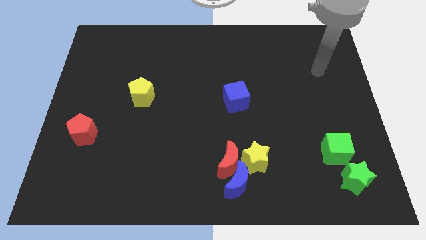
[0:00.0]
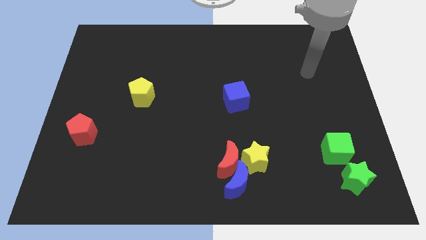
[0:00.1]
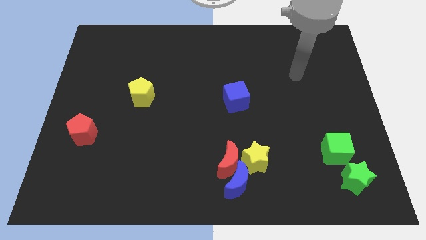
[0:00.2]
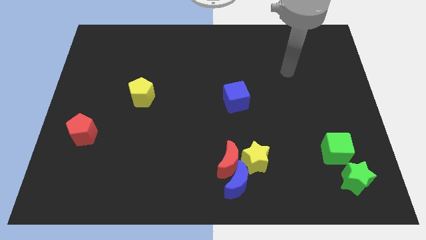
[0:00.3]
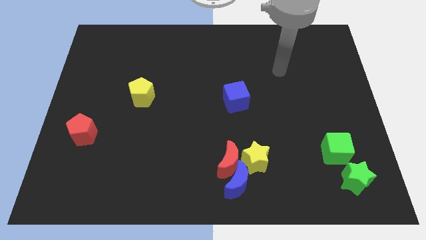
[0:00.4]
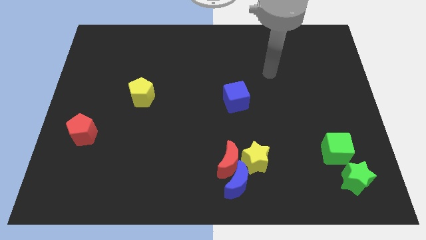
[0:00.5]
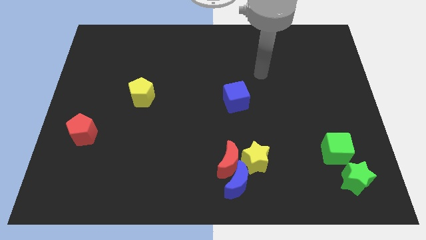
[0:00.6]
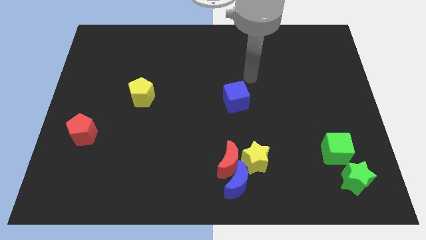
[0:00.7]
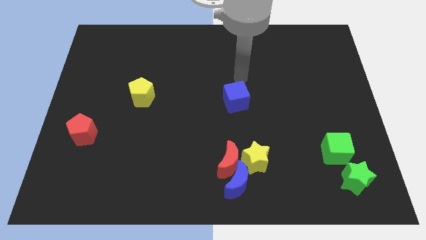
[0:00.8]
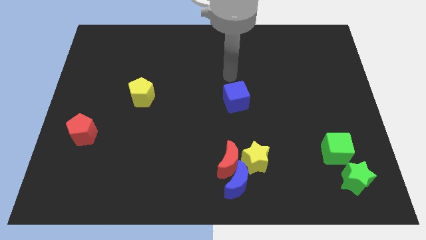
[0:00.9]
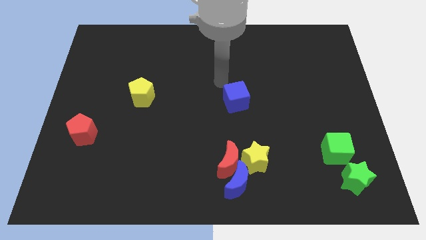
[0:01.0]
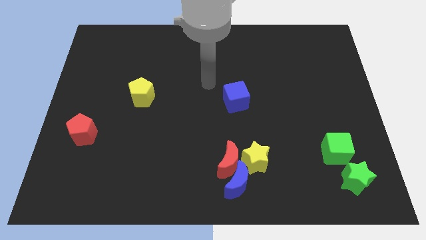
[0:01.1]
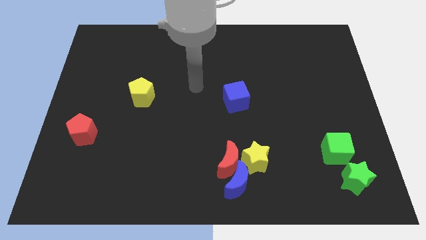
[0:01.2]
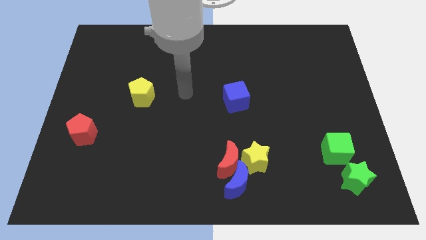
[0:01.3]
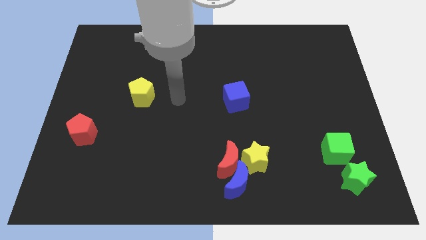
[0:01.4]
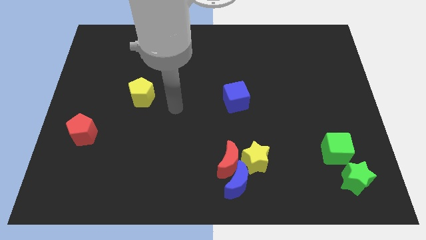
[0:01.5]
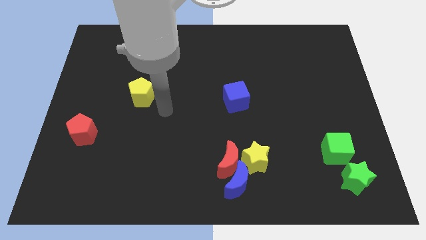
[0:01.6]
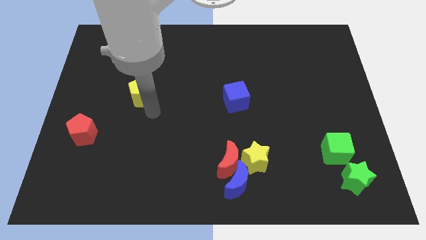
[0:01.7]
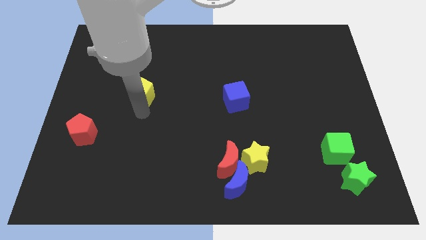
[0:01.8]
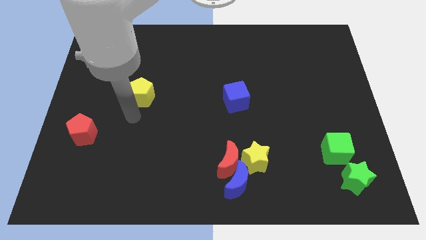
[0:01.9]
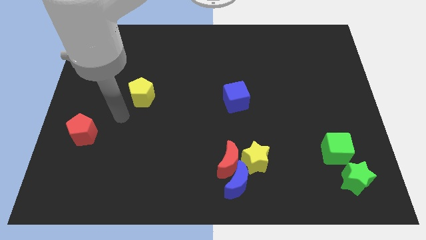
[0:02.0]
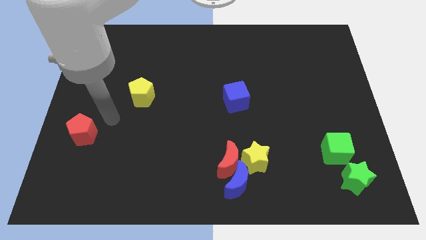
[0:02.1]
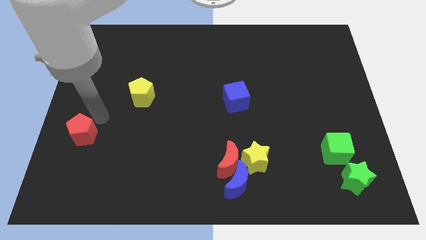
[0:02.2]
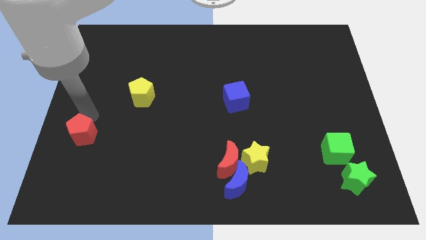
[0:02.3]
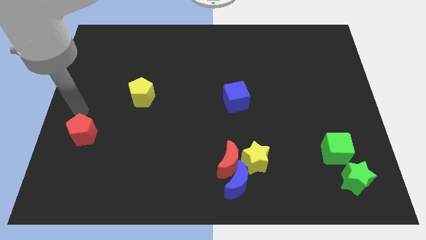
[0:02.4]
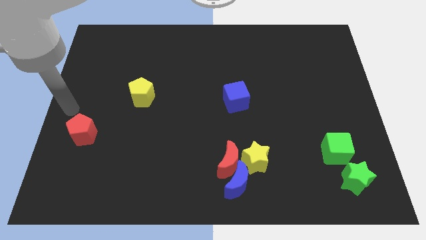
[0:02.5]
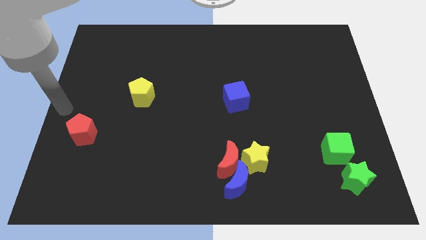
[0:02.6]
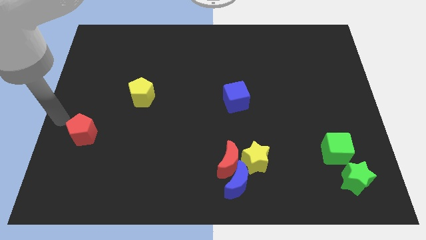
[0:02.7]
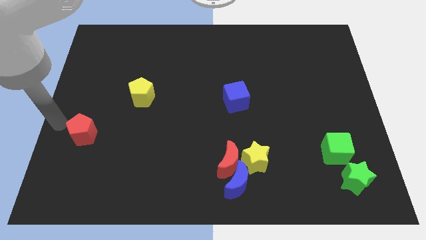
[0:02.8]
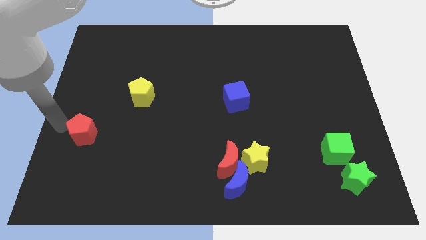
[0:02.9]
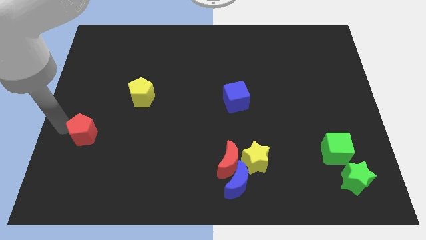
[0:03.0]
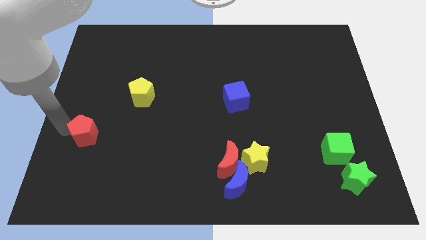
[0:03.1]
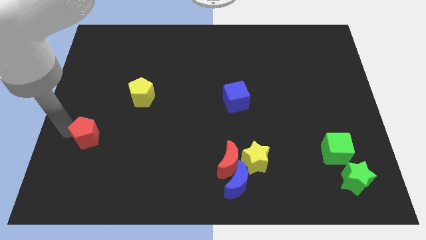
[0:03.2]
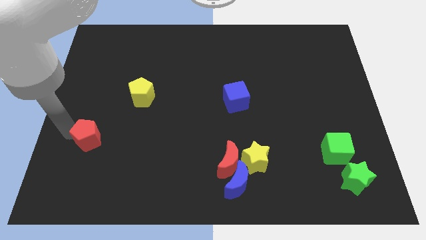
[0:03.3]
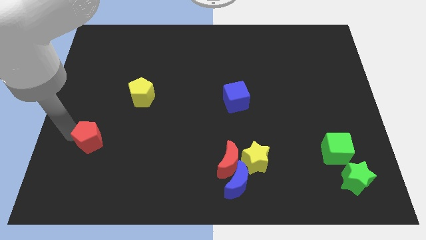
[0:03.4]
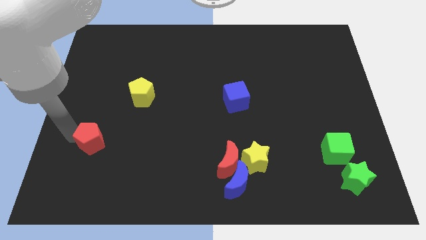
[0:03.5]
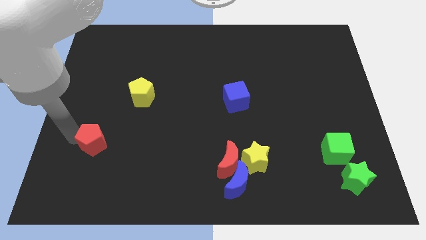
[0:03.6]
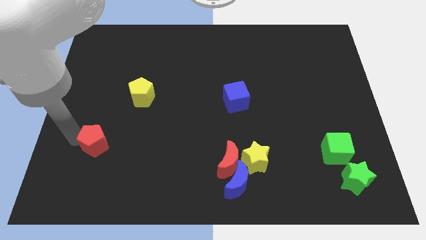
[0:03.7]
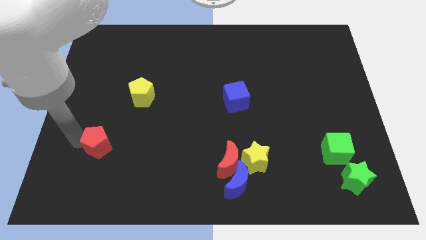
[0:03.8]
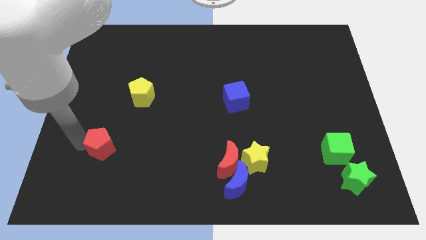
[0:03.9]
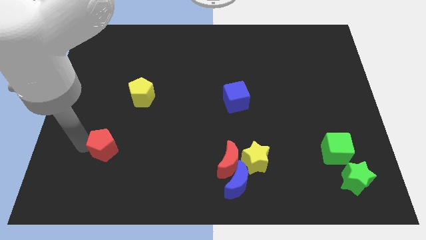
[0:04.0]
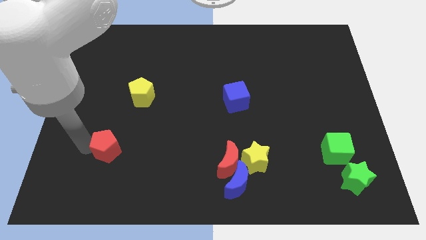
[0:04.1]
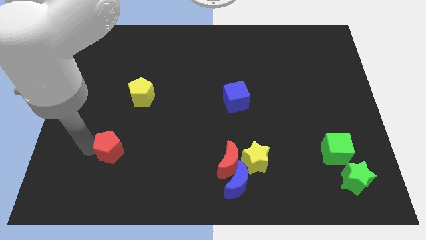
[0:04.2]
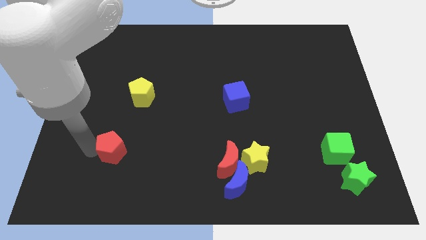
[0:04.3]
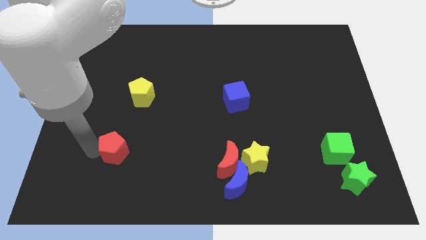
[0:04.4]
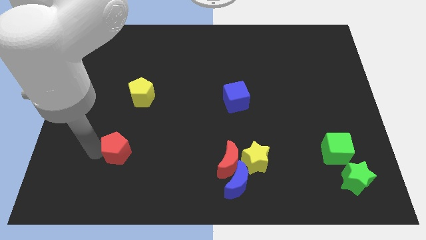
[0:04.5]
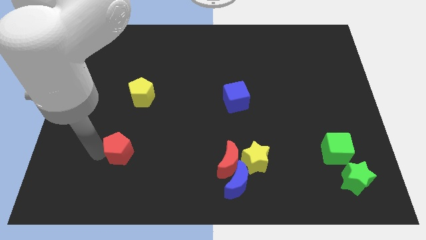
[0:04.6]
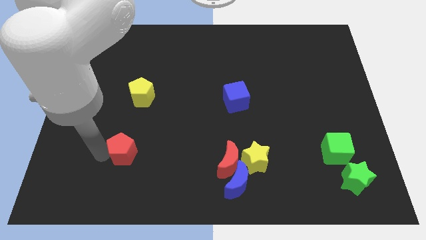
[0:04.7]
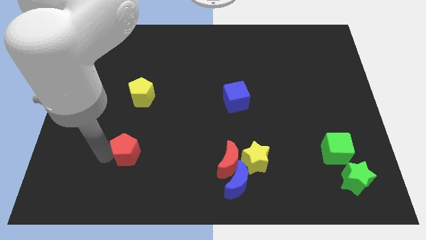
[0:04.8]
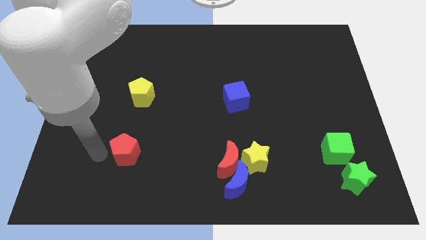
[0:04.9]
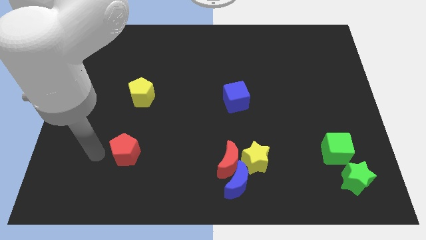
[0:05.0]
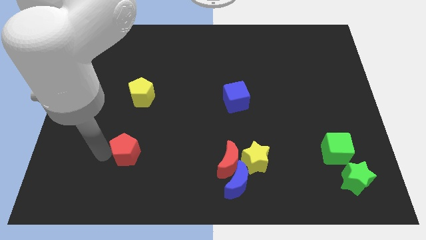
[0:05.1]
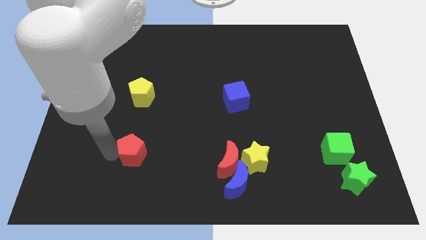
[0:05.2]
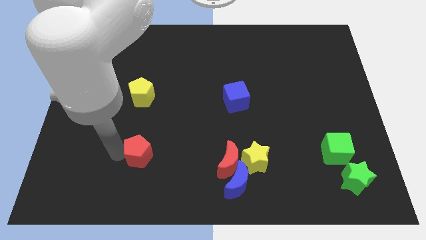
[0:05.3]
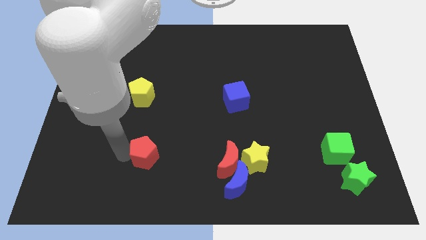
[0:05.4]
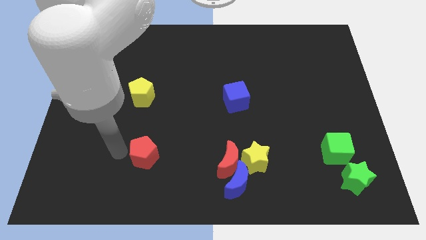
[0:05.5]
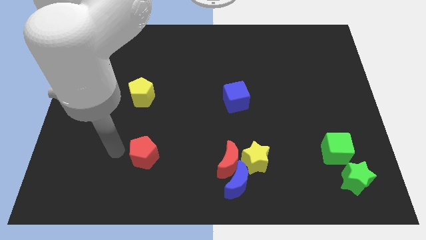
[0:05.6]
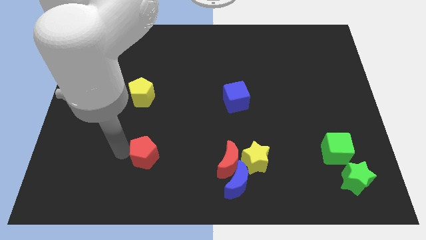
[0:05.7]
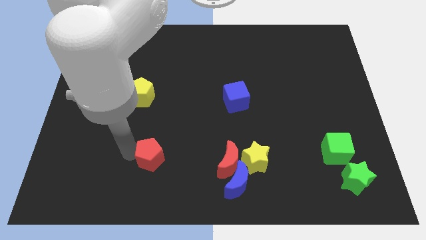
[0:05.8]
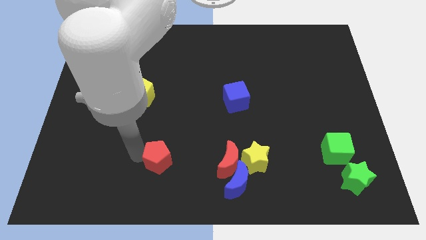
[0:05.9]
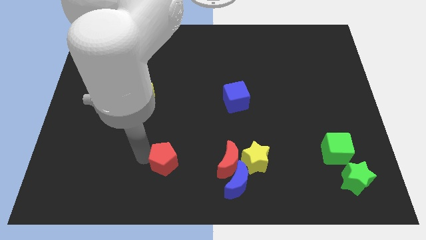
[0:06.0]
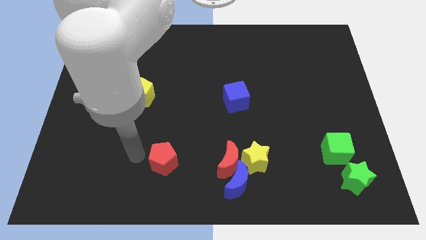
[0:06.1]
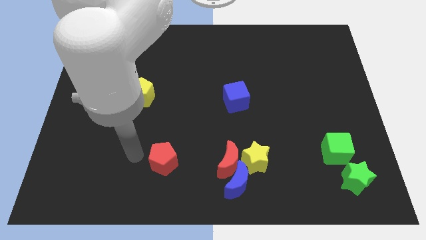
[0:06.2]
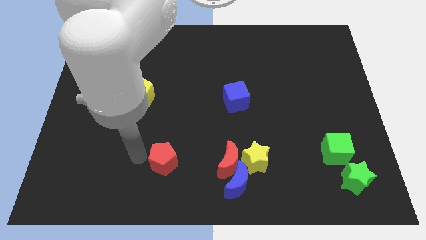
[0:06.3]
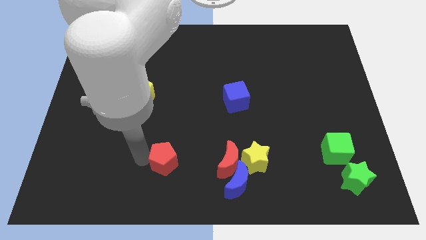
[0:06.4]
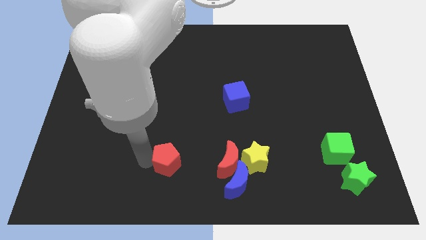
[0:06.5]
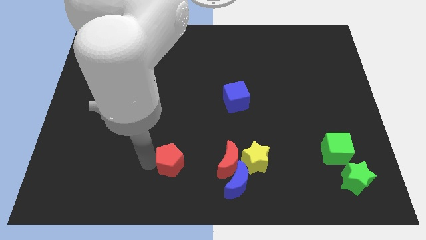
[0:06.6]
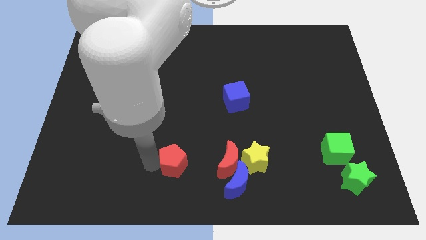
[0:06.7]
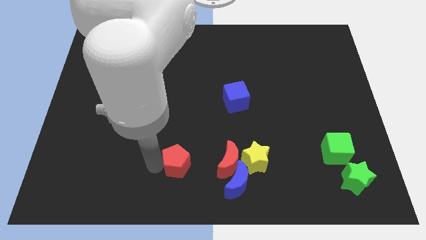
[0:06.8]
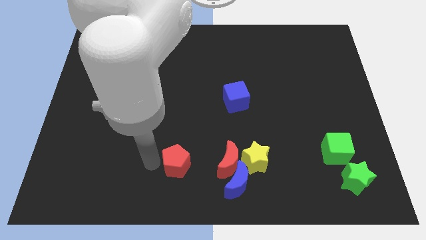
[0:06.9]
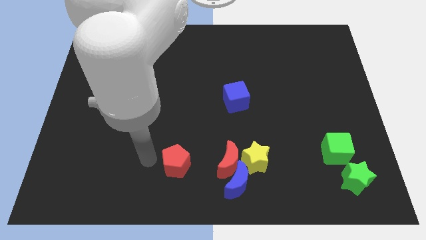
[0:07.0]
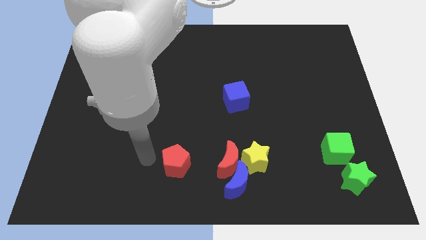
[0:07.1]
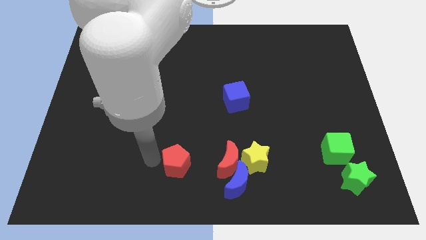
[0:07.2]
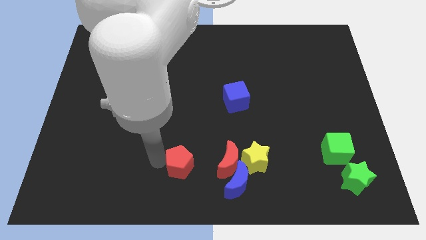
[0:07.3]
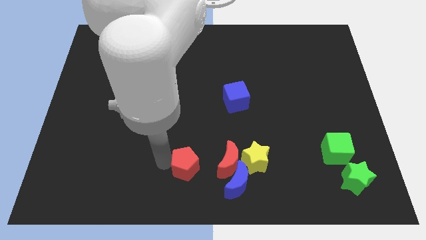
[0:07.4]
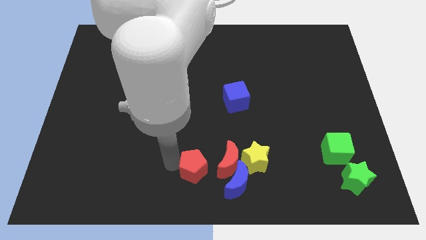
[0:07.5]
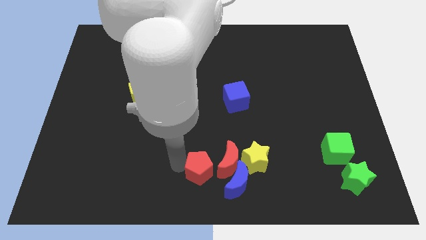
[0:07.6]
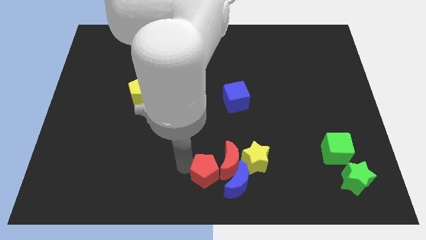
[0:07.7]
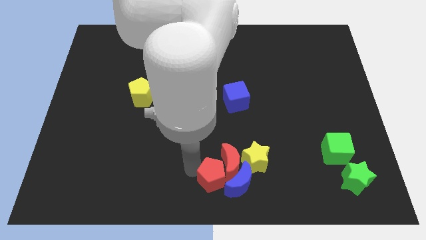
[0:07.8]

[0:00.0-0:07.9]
push the red pentagon next to the blue moon
